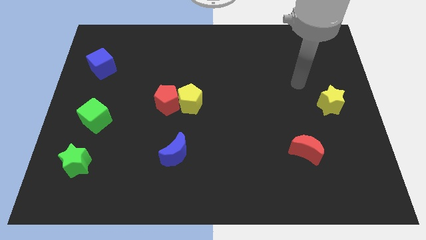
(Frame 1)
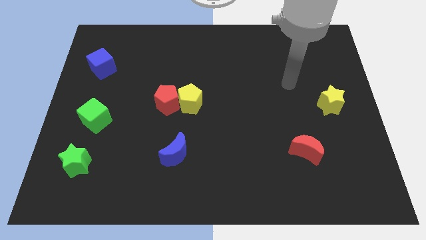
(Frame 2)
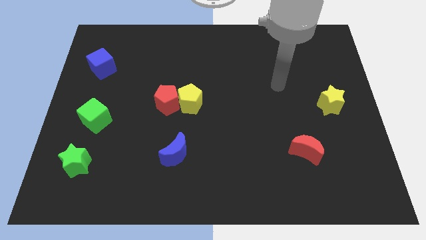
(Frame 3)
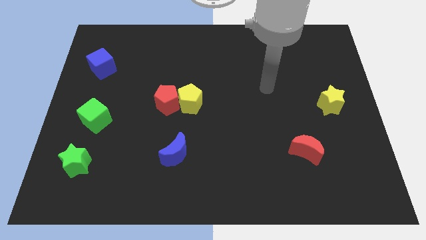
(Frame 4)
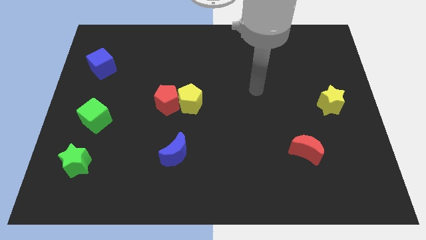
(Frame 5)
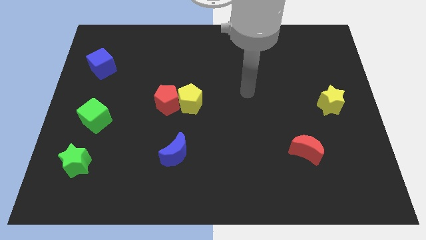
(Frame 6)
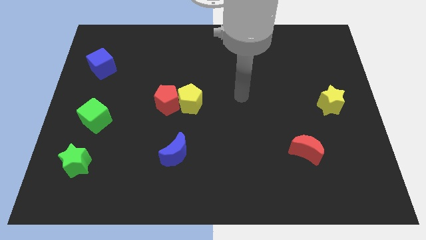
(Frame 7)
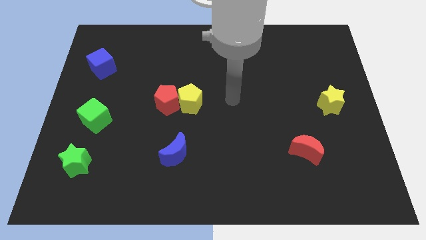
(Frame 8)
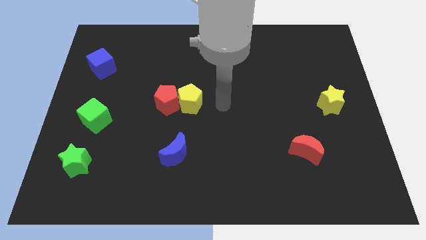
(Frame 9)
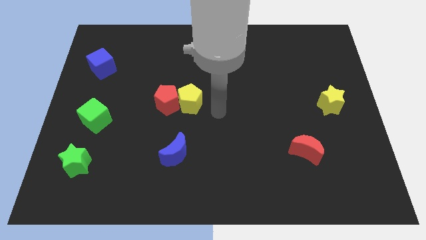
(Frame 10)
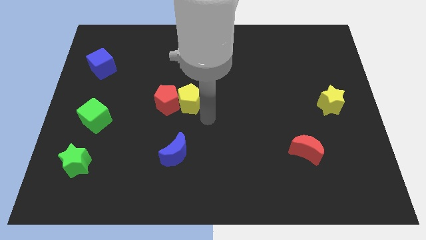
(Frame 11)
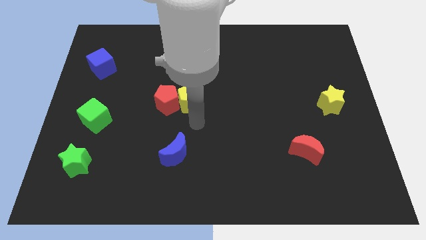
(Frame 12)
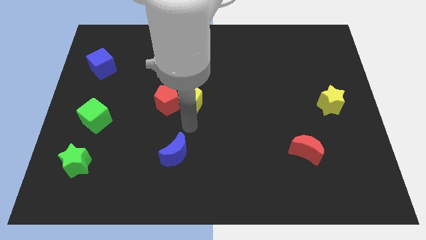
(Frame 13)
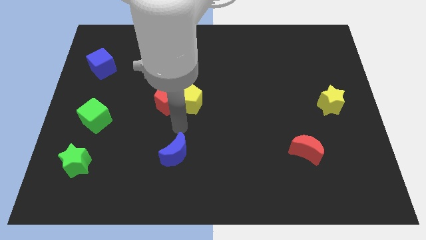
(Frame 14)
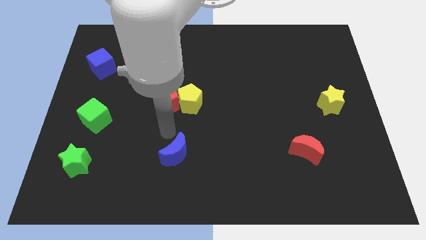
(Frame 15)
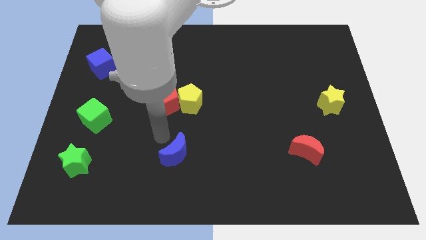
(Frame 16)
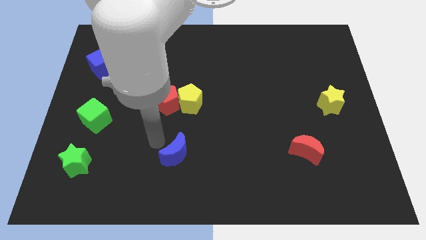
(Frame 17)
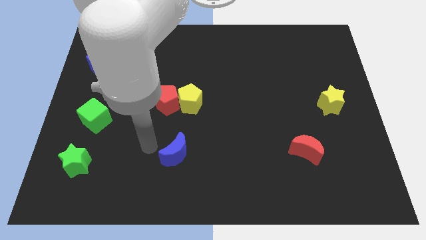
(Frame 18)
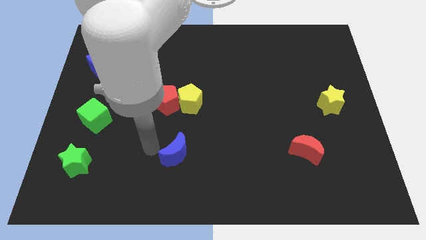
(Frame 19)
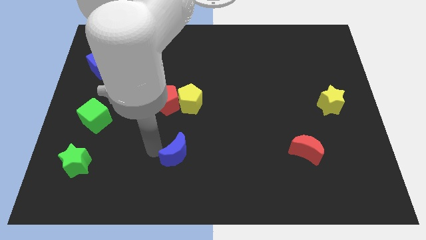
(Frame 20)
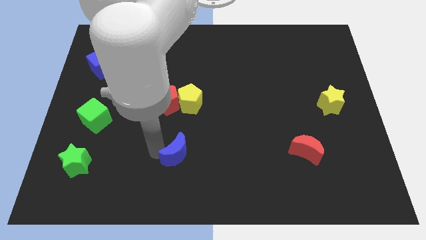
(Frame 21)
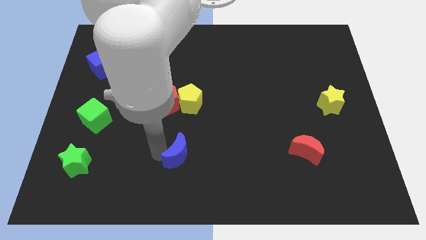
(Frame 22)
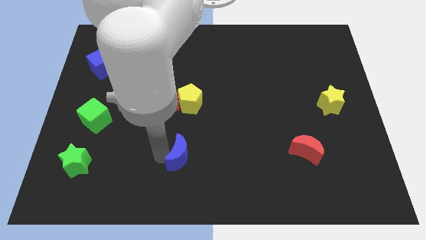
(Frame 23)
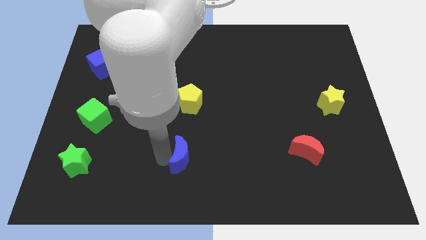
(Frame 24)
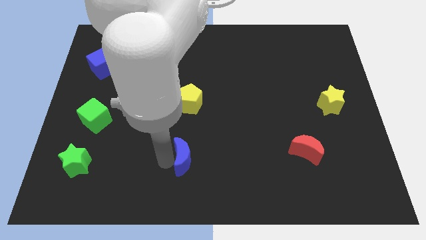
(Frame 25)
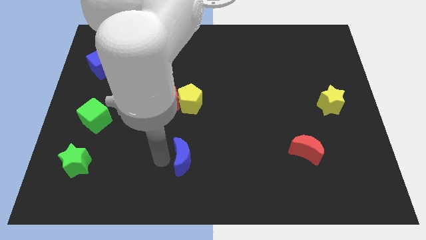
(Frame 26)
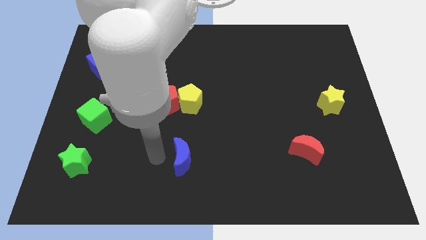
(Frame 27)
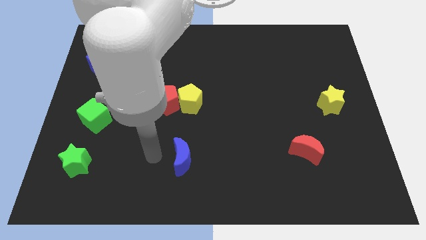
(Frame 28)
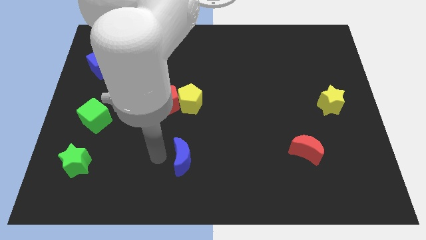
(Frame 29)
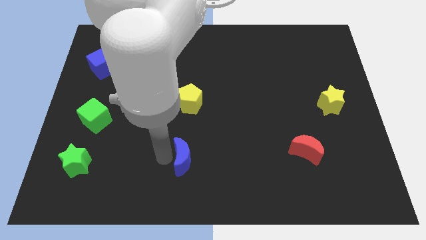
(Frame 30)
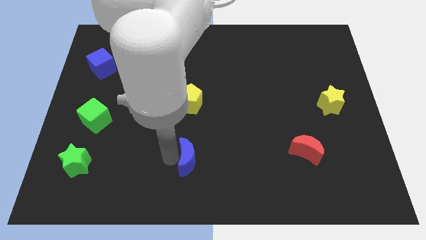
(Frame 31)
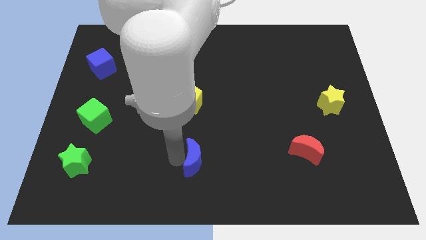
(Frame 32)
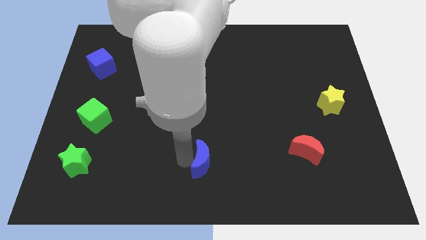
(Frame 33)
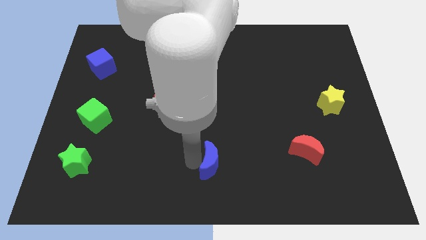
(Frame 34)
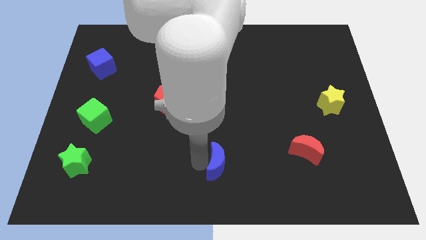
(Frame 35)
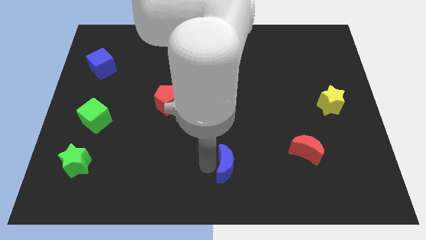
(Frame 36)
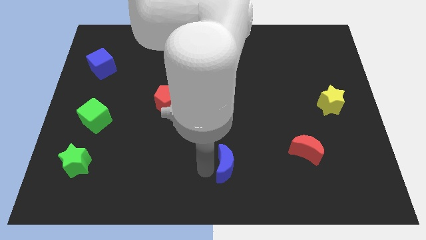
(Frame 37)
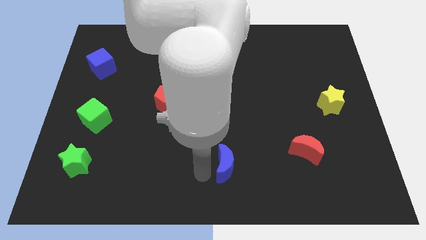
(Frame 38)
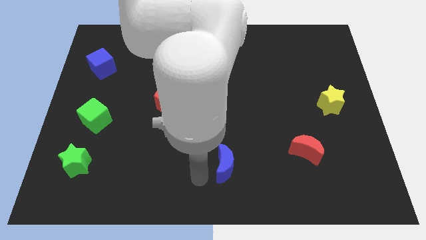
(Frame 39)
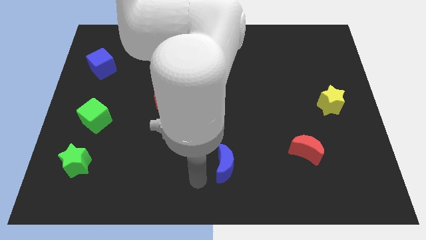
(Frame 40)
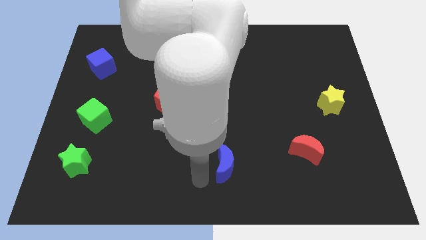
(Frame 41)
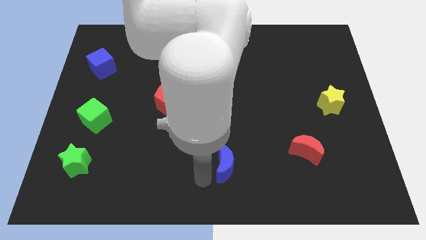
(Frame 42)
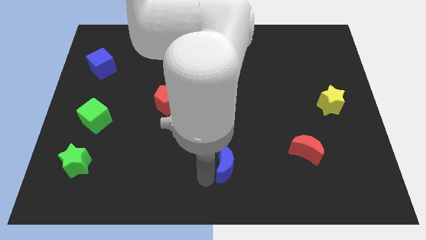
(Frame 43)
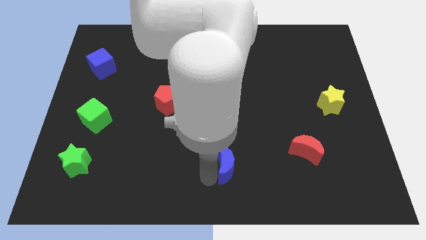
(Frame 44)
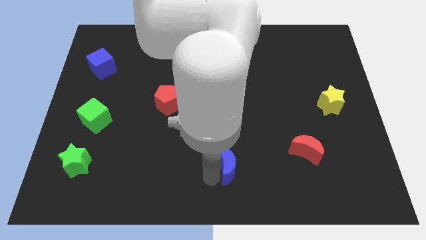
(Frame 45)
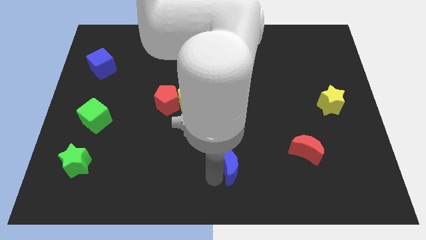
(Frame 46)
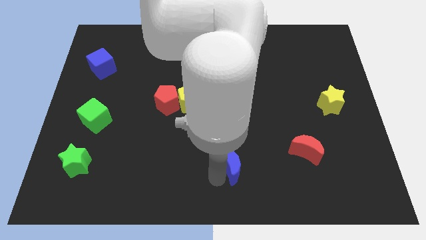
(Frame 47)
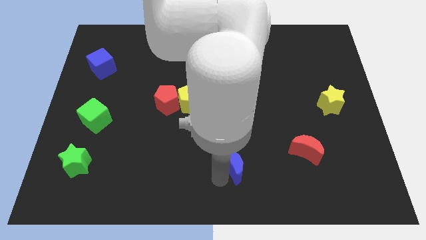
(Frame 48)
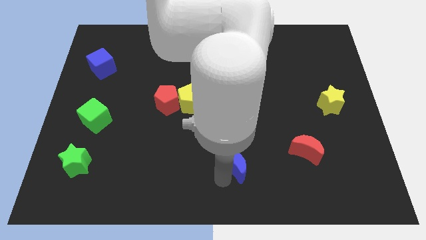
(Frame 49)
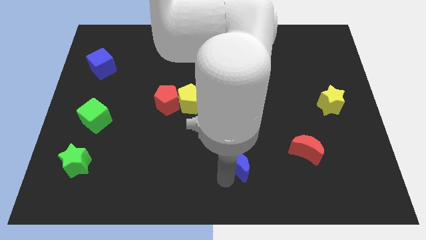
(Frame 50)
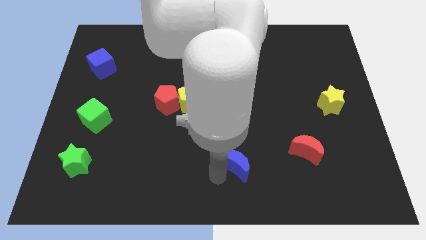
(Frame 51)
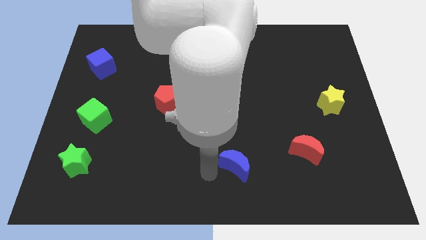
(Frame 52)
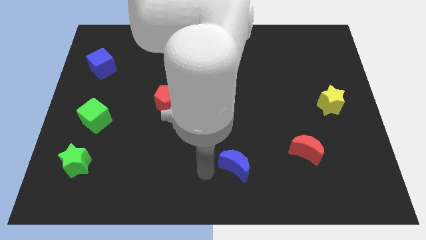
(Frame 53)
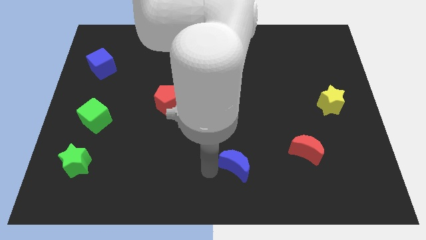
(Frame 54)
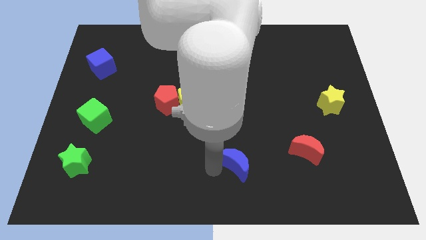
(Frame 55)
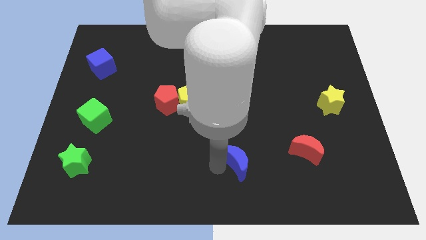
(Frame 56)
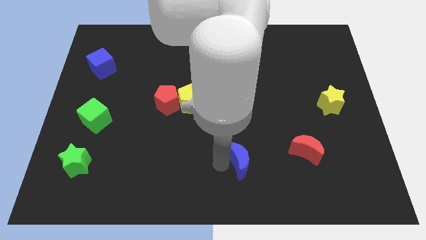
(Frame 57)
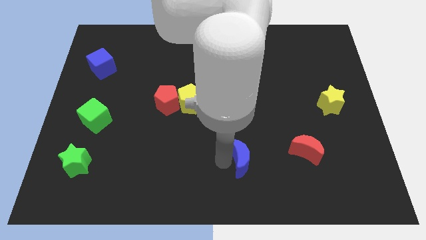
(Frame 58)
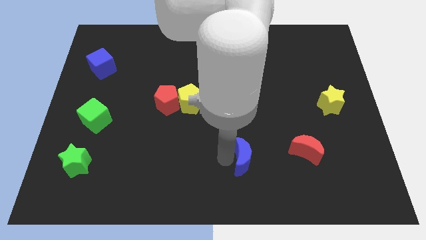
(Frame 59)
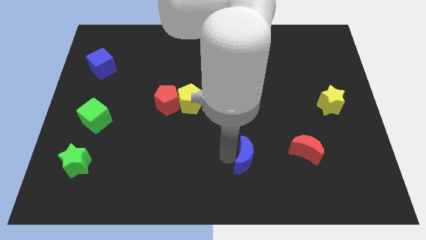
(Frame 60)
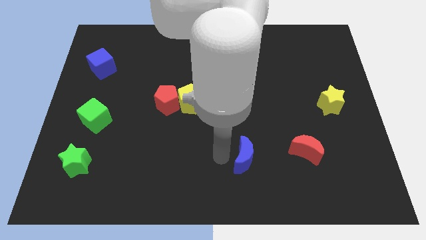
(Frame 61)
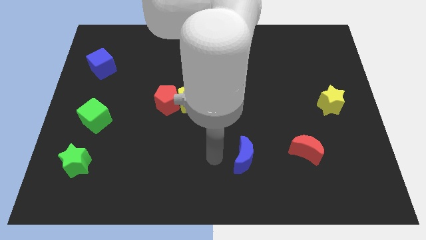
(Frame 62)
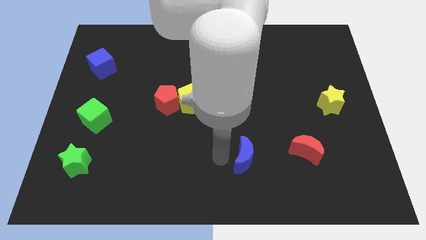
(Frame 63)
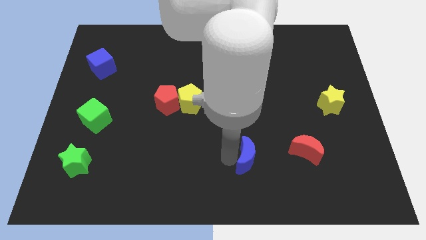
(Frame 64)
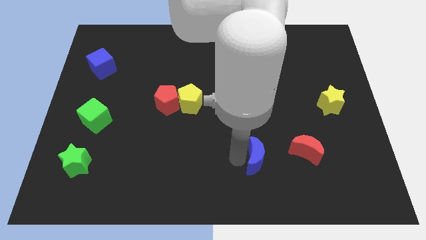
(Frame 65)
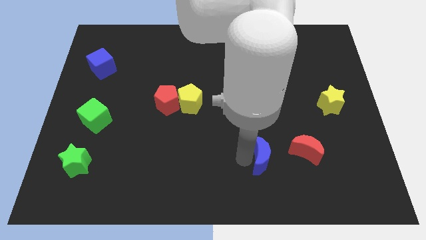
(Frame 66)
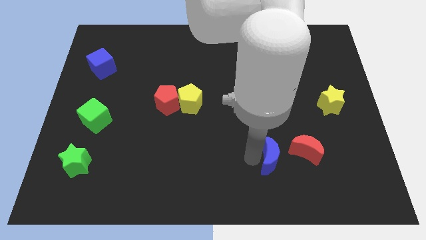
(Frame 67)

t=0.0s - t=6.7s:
push the blue moon to the right

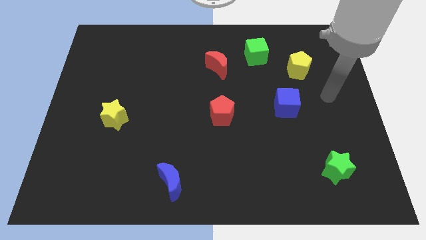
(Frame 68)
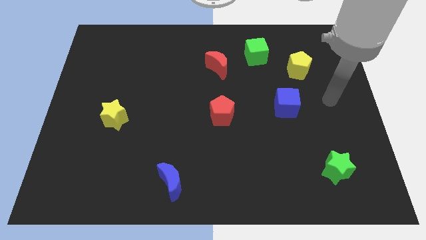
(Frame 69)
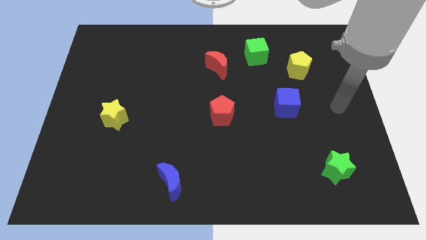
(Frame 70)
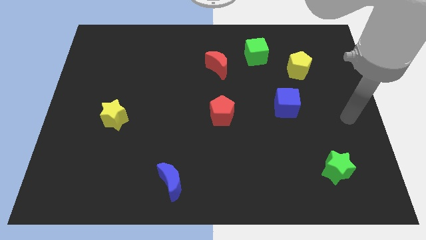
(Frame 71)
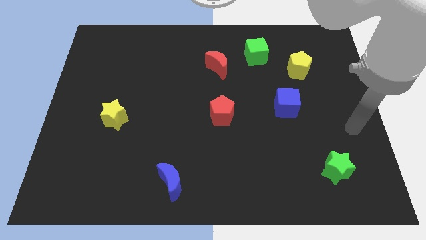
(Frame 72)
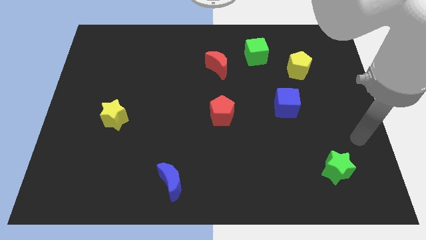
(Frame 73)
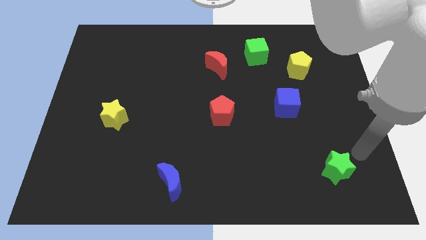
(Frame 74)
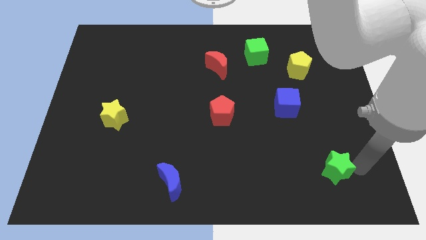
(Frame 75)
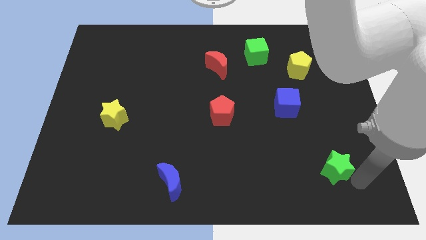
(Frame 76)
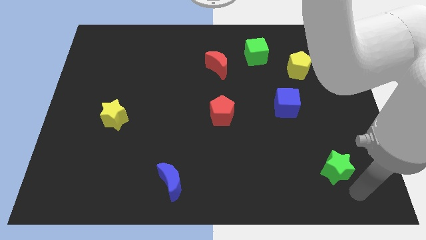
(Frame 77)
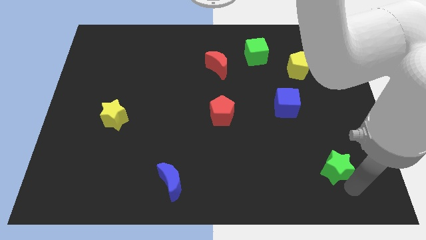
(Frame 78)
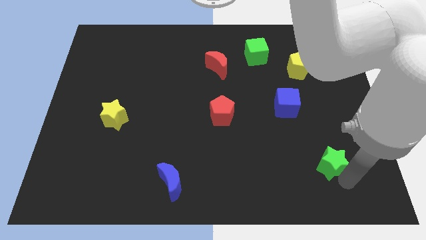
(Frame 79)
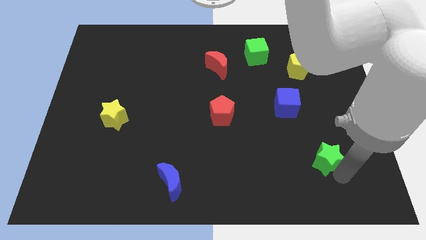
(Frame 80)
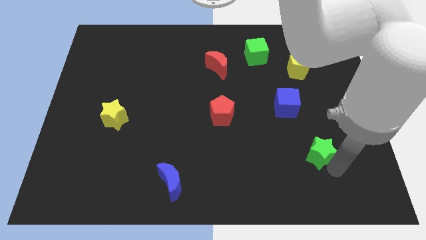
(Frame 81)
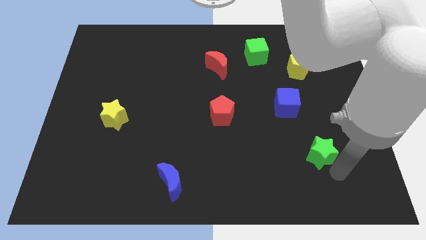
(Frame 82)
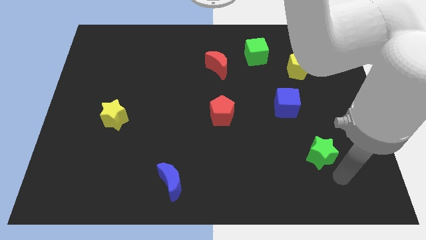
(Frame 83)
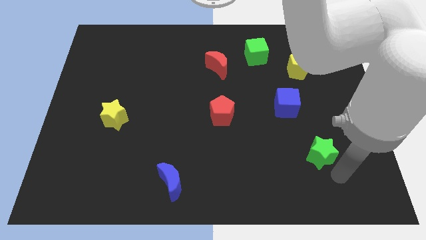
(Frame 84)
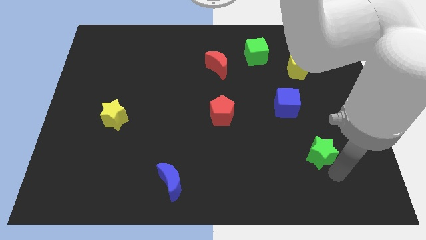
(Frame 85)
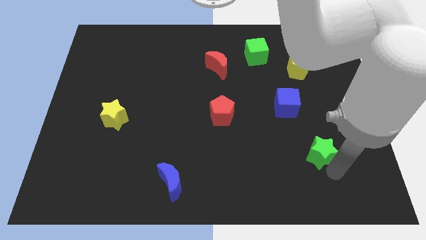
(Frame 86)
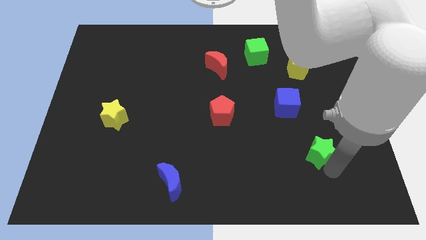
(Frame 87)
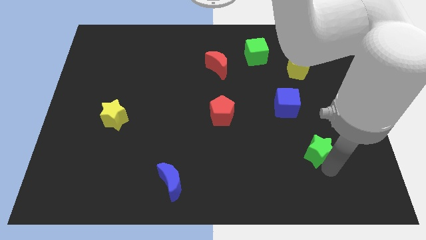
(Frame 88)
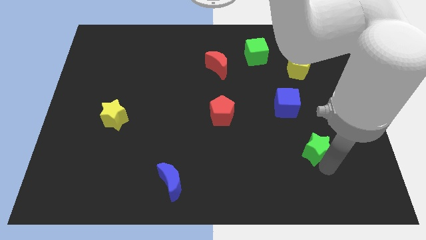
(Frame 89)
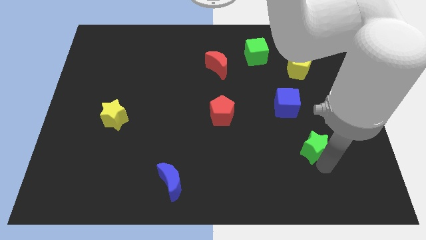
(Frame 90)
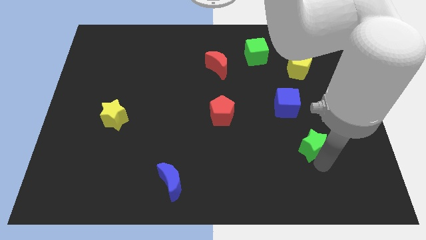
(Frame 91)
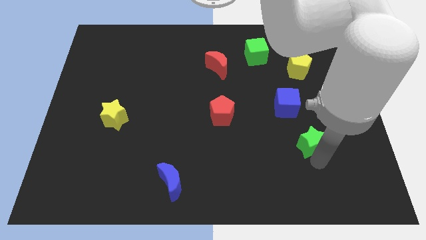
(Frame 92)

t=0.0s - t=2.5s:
slightly move the green star diagonally up and left
